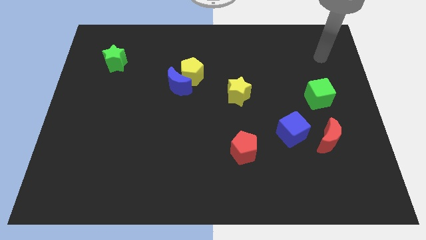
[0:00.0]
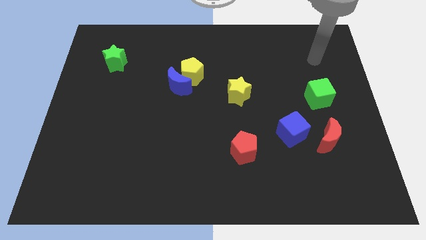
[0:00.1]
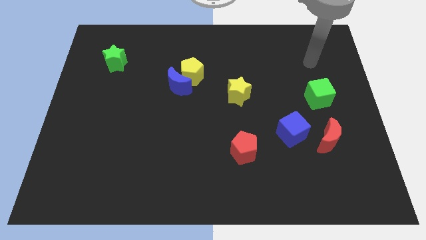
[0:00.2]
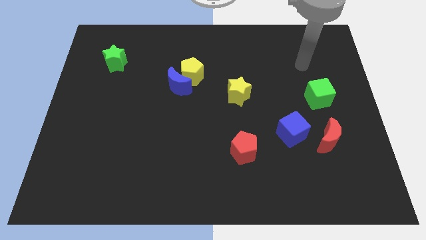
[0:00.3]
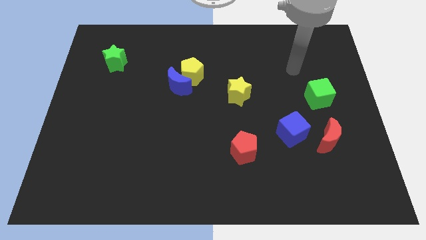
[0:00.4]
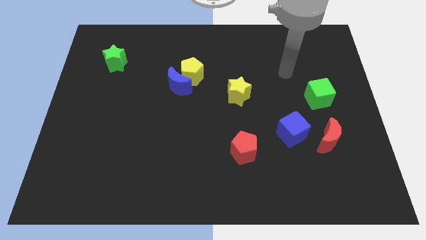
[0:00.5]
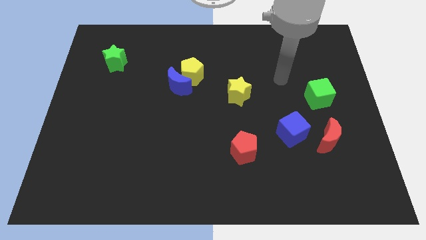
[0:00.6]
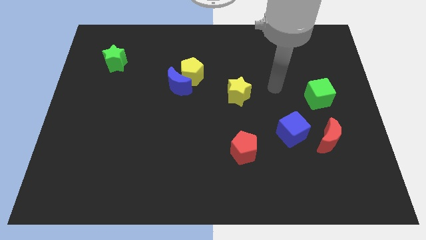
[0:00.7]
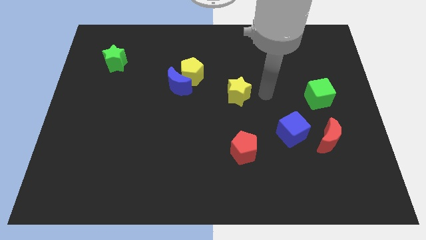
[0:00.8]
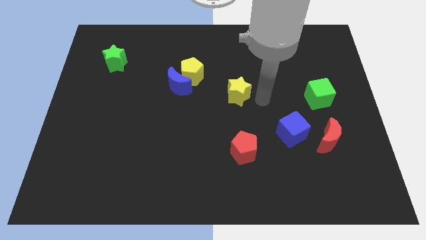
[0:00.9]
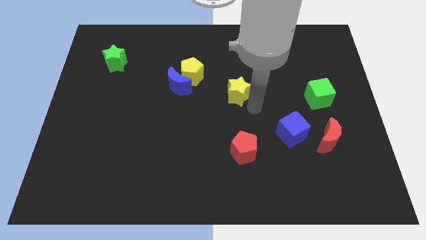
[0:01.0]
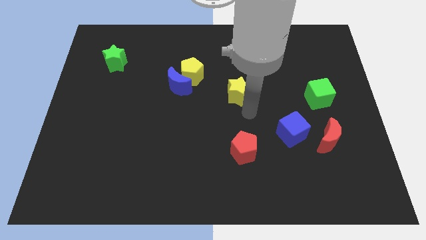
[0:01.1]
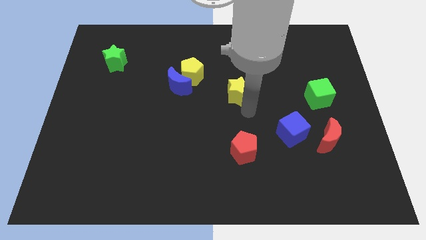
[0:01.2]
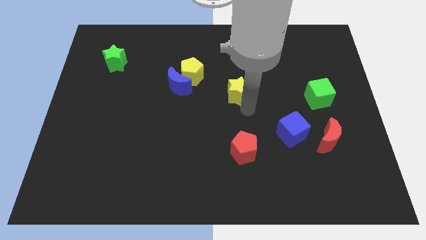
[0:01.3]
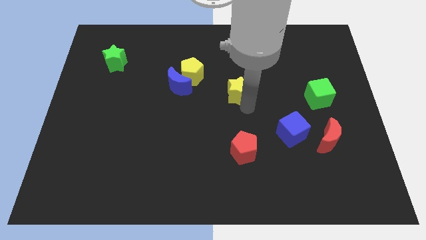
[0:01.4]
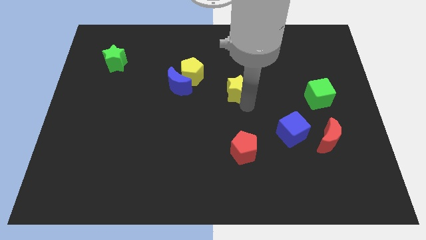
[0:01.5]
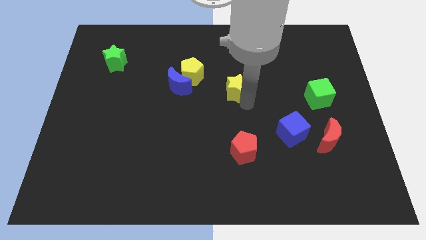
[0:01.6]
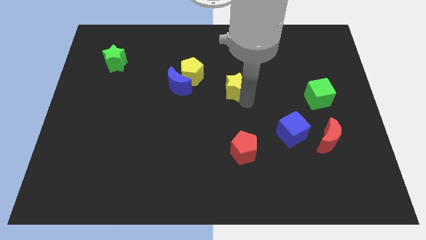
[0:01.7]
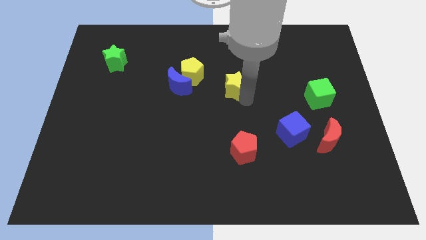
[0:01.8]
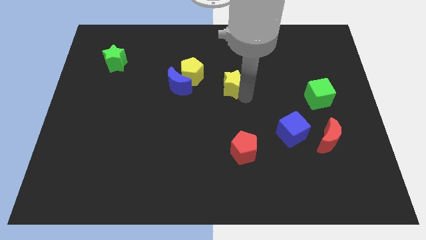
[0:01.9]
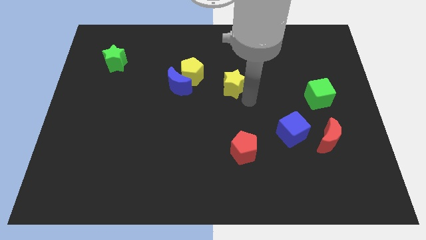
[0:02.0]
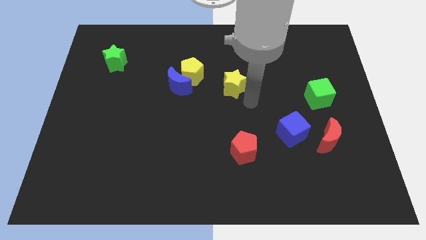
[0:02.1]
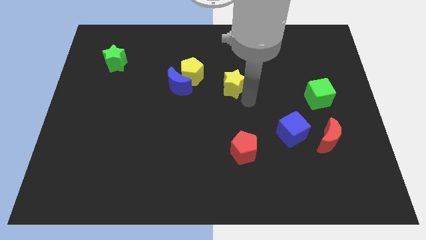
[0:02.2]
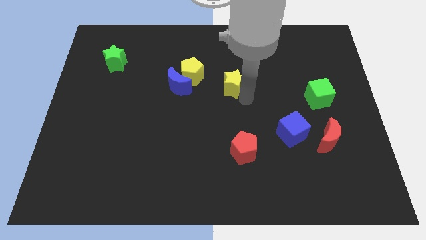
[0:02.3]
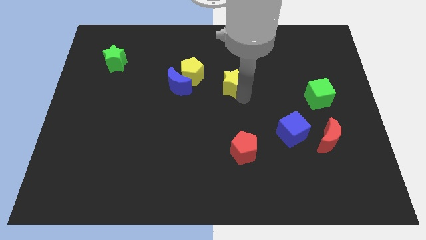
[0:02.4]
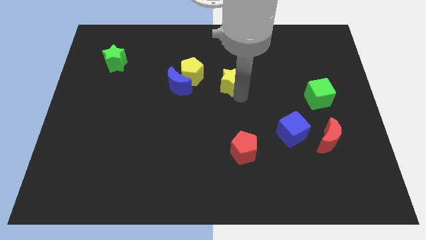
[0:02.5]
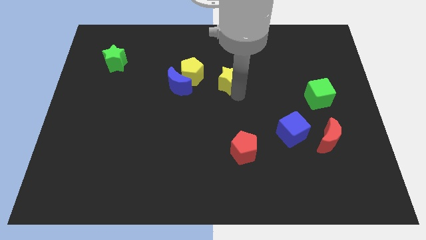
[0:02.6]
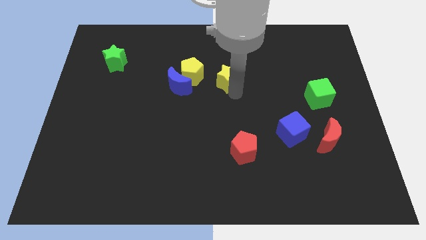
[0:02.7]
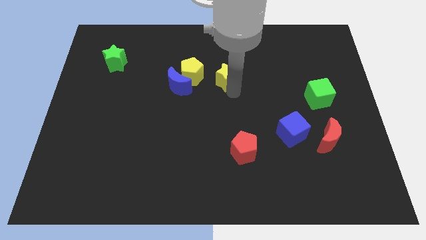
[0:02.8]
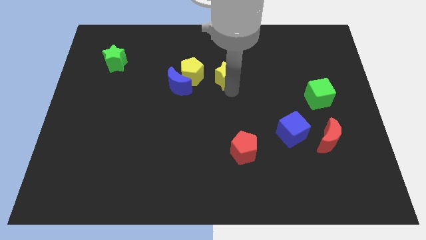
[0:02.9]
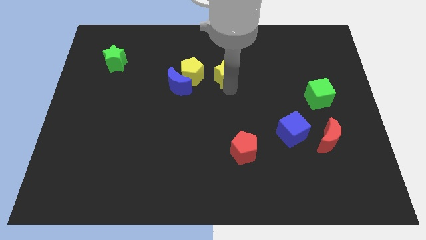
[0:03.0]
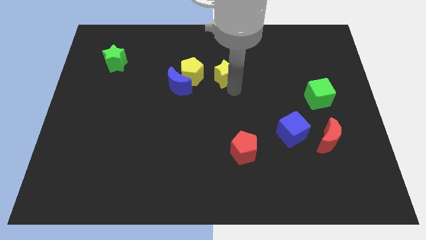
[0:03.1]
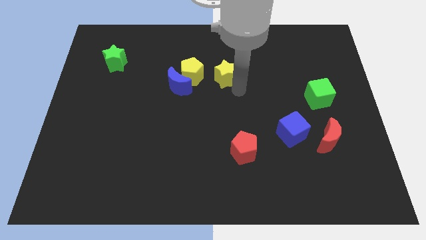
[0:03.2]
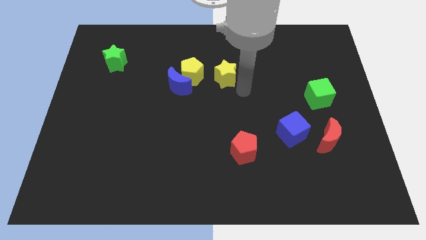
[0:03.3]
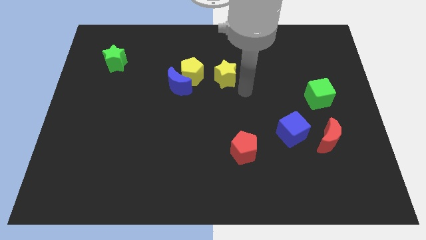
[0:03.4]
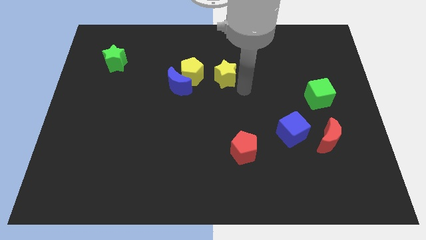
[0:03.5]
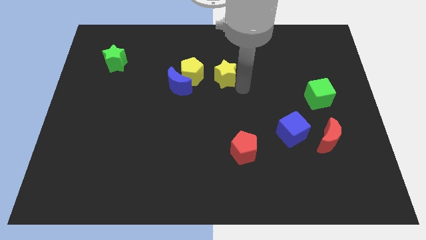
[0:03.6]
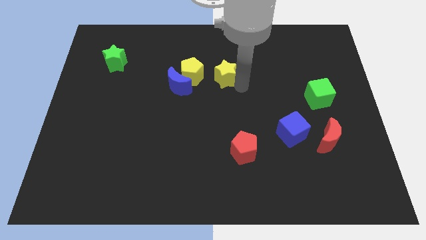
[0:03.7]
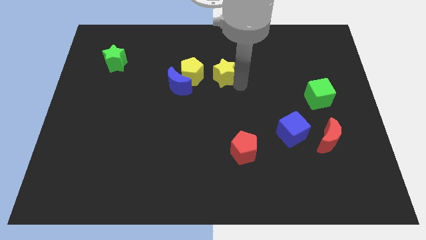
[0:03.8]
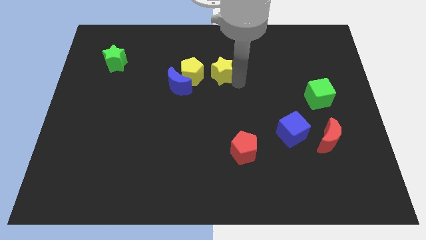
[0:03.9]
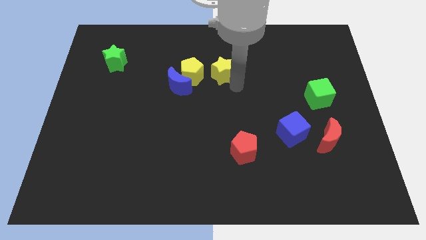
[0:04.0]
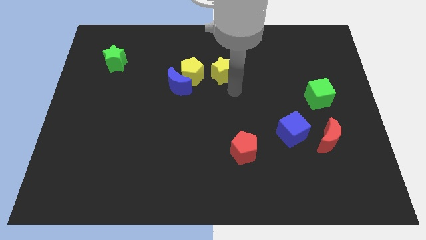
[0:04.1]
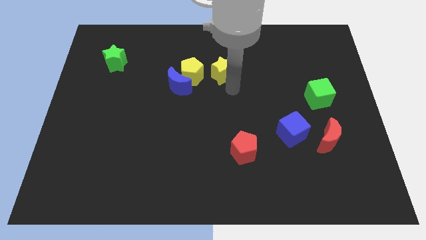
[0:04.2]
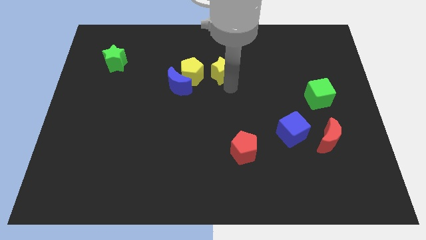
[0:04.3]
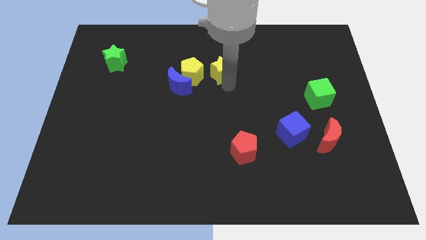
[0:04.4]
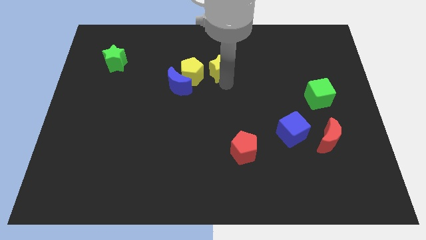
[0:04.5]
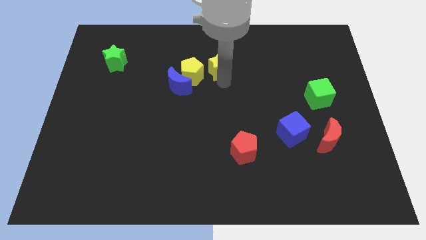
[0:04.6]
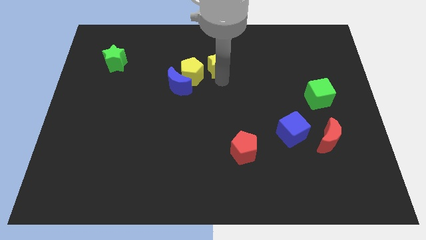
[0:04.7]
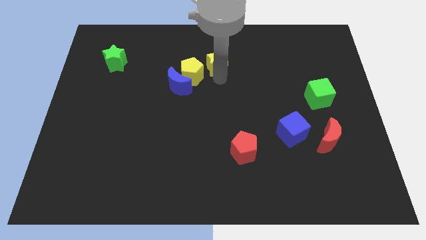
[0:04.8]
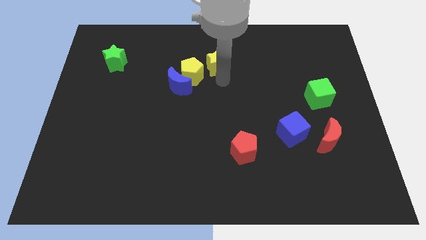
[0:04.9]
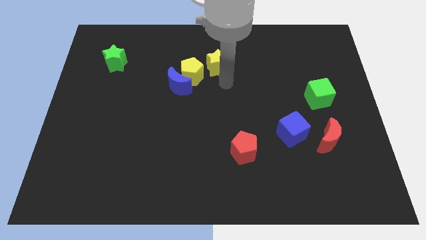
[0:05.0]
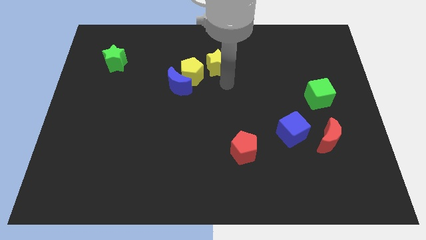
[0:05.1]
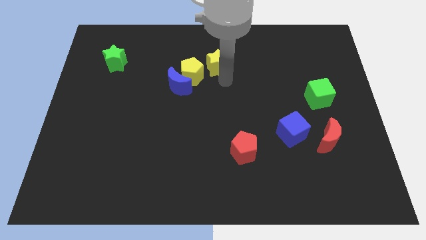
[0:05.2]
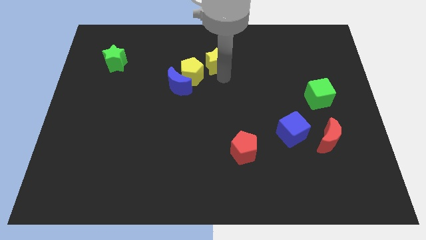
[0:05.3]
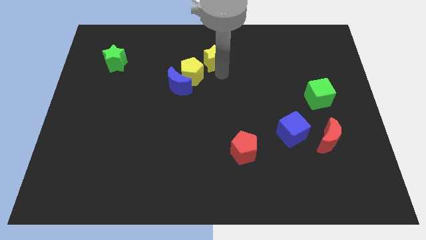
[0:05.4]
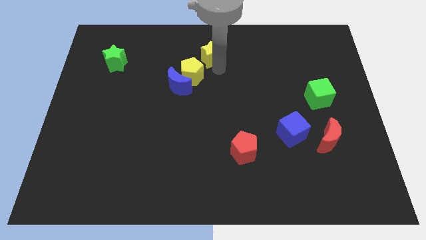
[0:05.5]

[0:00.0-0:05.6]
slide the yellow star to the towards your base
